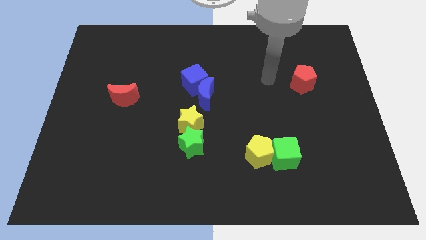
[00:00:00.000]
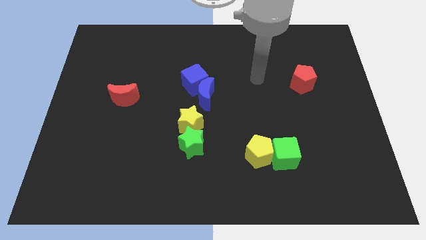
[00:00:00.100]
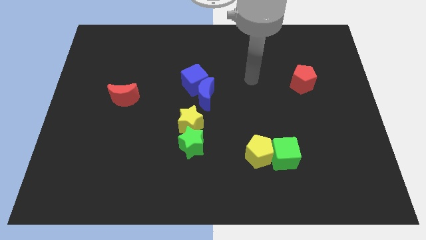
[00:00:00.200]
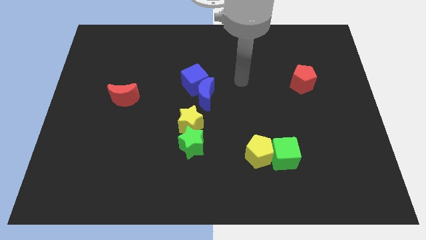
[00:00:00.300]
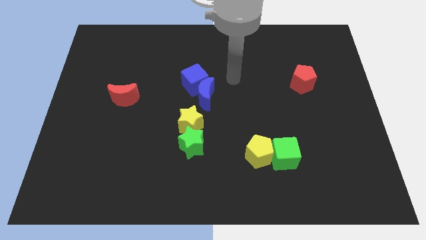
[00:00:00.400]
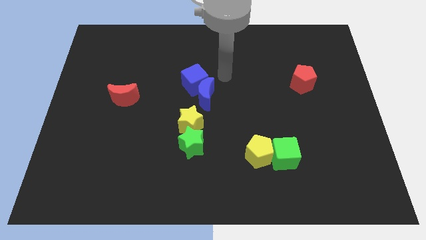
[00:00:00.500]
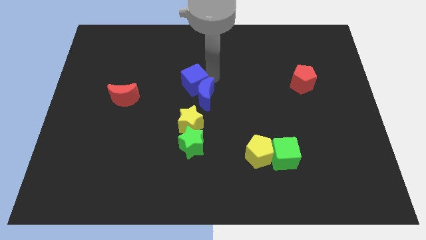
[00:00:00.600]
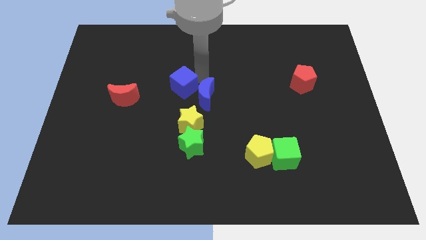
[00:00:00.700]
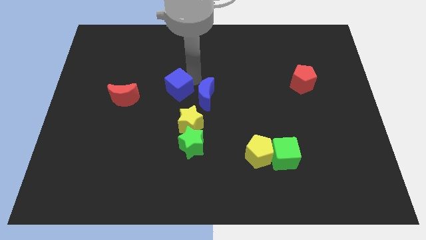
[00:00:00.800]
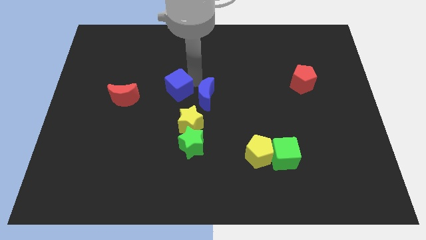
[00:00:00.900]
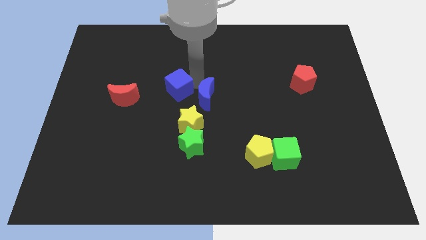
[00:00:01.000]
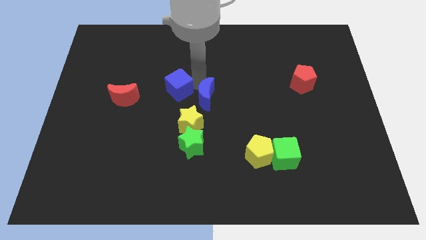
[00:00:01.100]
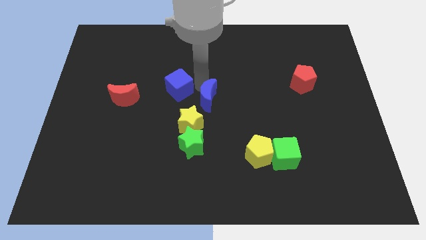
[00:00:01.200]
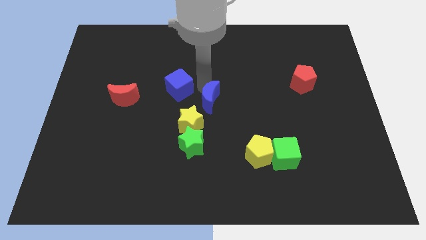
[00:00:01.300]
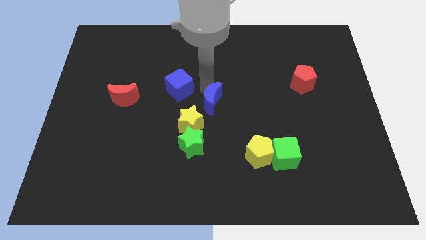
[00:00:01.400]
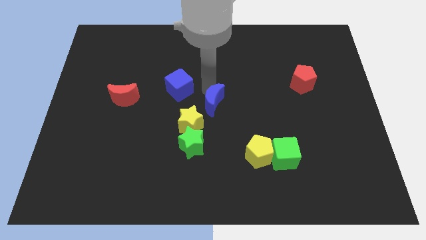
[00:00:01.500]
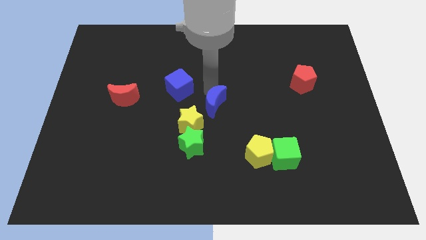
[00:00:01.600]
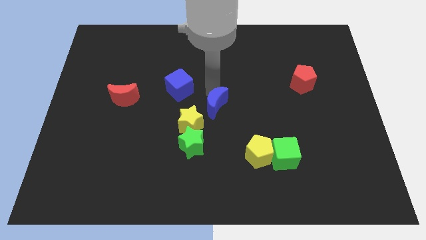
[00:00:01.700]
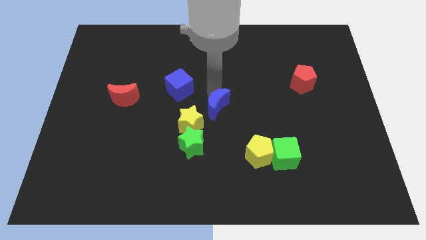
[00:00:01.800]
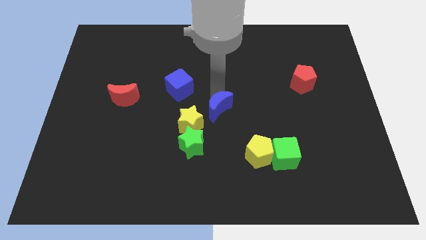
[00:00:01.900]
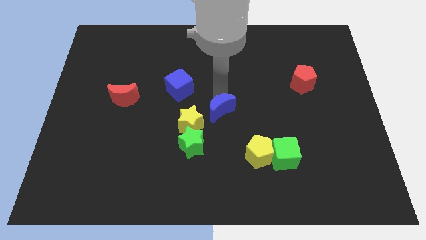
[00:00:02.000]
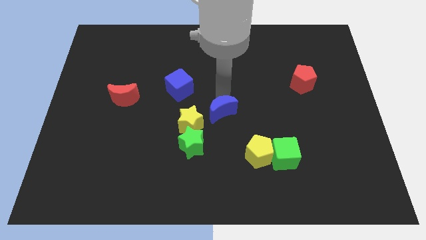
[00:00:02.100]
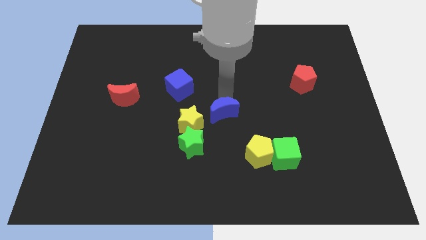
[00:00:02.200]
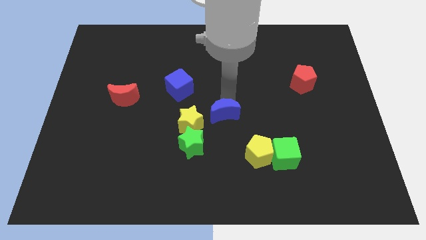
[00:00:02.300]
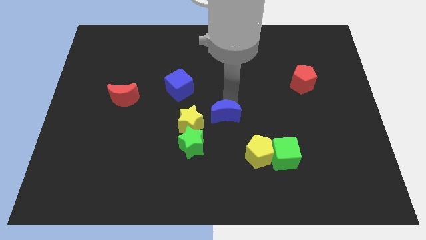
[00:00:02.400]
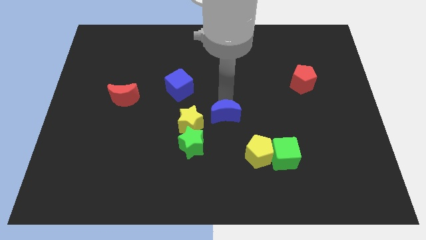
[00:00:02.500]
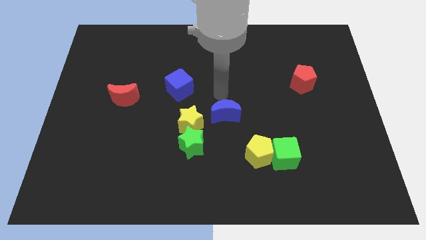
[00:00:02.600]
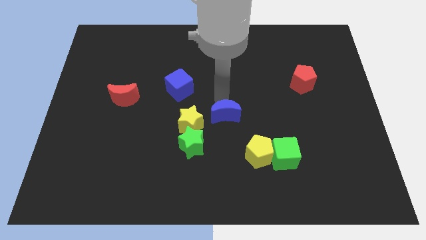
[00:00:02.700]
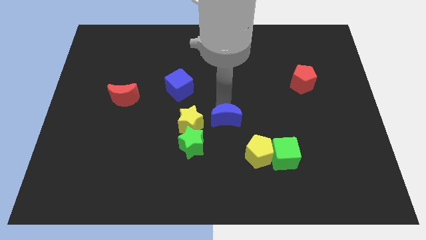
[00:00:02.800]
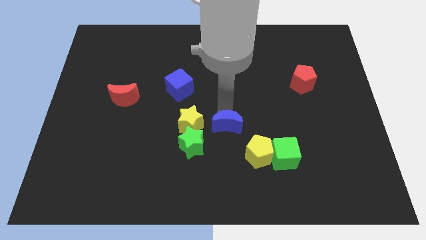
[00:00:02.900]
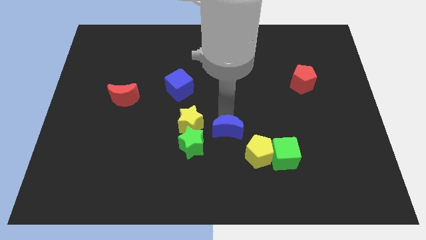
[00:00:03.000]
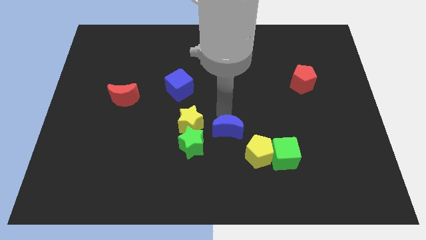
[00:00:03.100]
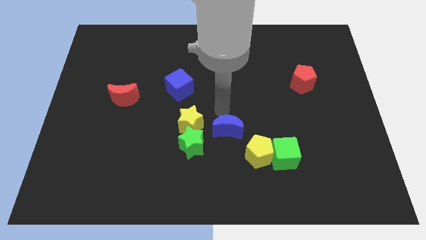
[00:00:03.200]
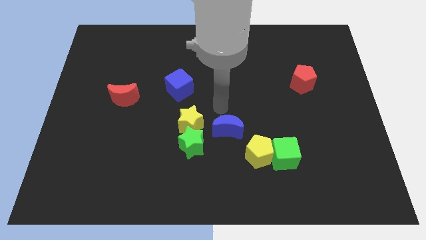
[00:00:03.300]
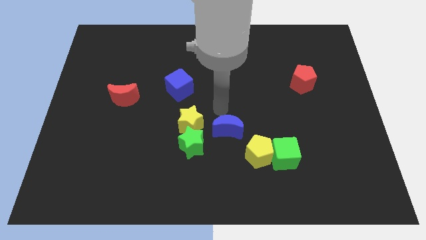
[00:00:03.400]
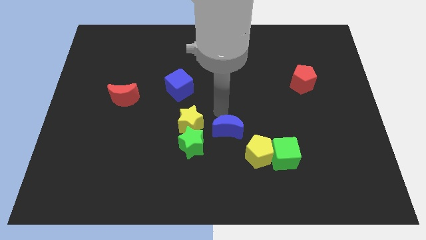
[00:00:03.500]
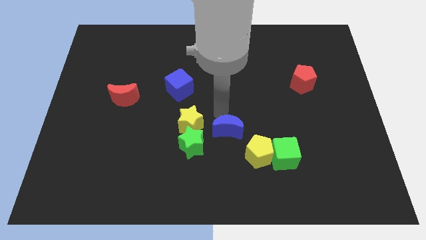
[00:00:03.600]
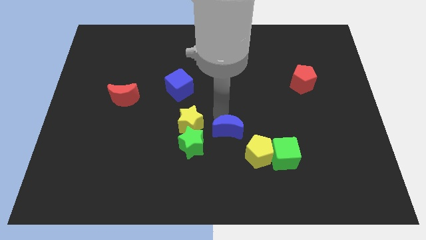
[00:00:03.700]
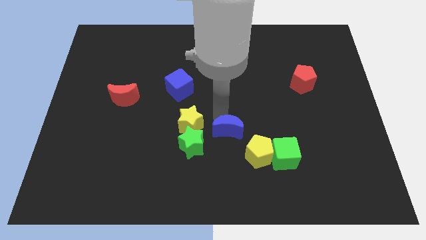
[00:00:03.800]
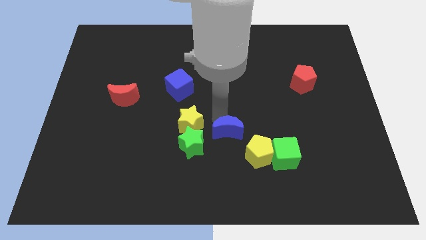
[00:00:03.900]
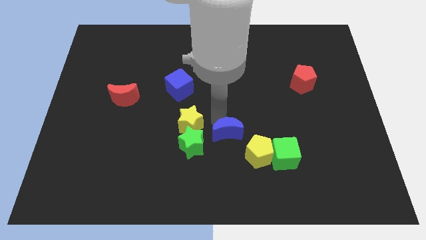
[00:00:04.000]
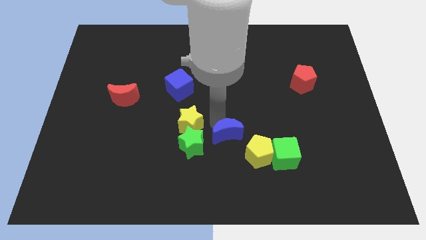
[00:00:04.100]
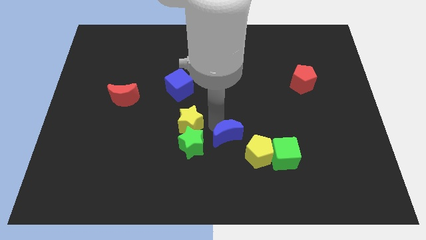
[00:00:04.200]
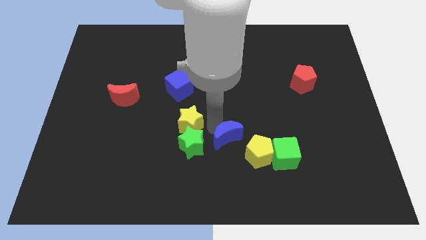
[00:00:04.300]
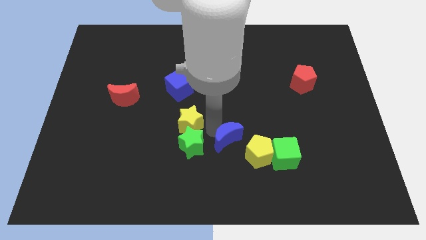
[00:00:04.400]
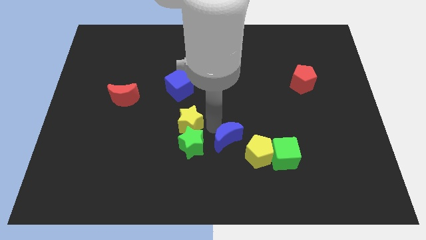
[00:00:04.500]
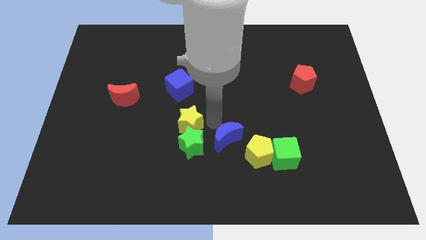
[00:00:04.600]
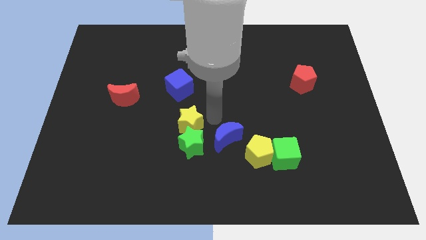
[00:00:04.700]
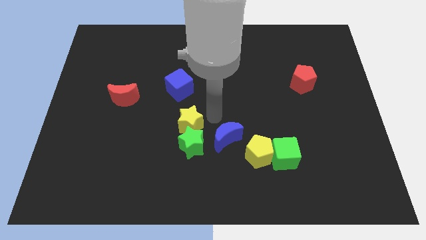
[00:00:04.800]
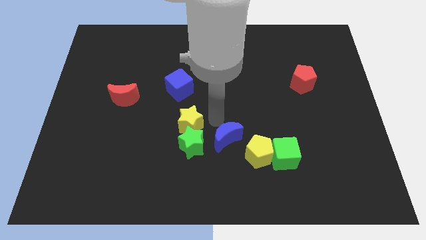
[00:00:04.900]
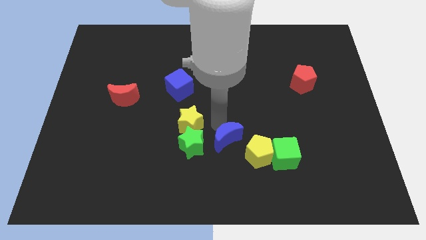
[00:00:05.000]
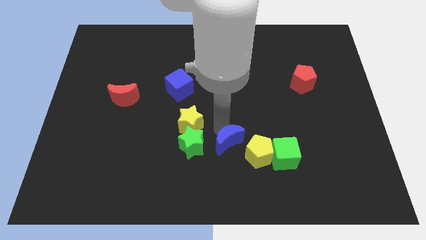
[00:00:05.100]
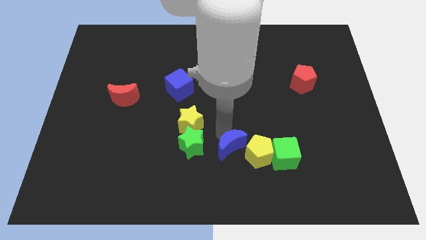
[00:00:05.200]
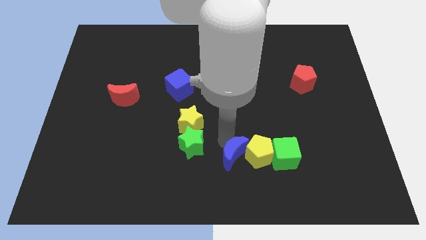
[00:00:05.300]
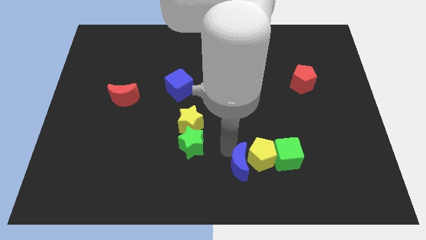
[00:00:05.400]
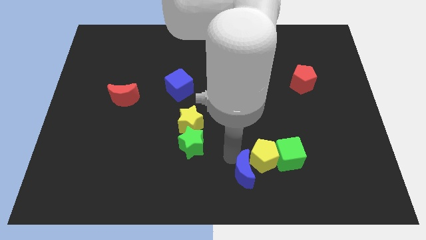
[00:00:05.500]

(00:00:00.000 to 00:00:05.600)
put the blue moon to the bottom left side of the green cube

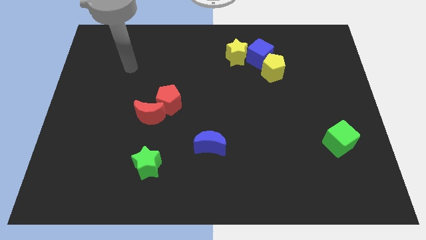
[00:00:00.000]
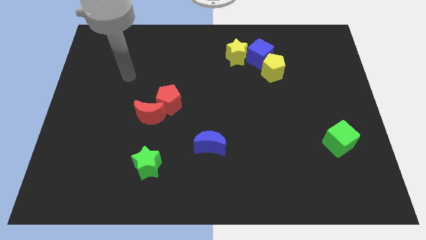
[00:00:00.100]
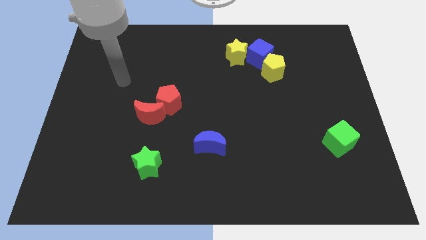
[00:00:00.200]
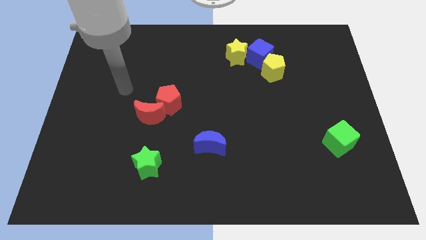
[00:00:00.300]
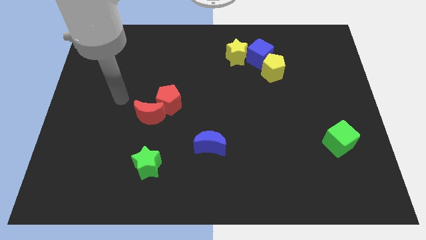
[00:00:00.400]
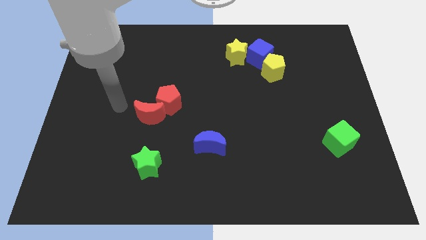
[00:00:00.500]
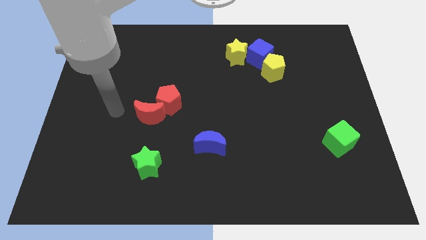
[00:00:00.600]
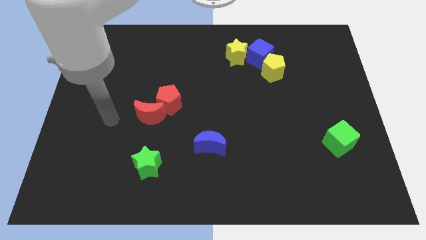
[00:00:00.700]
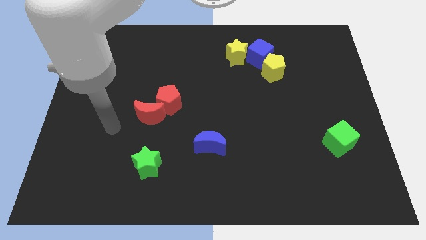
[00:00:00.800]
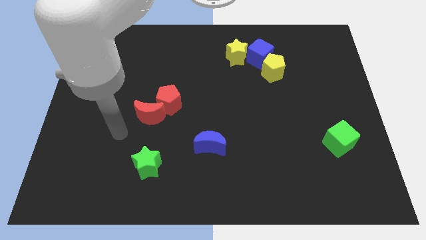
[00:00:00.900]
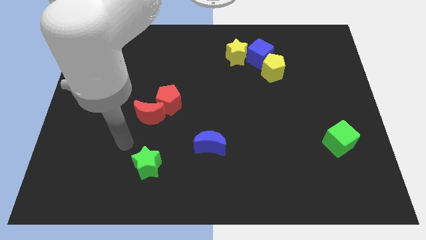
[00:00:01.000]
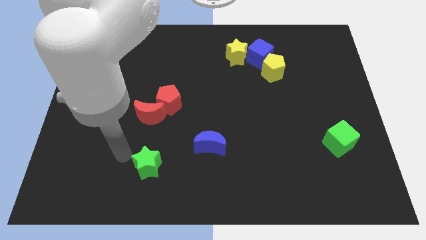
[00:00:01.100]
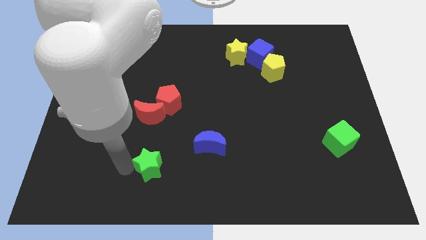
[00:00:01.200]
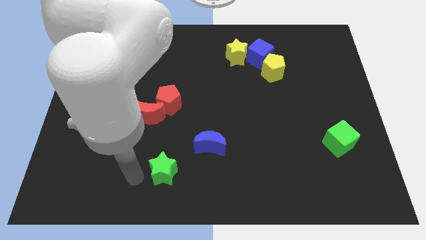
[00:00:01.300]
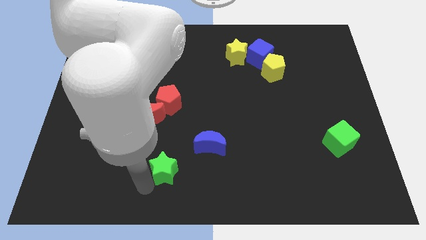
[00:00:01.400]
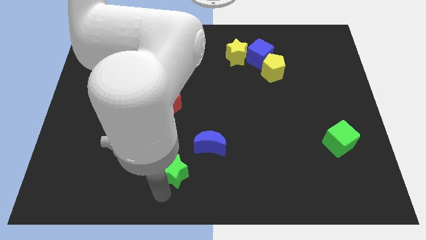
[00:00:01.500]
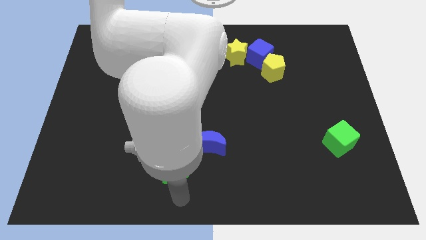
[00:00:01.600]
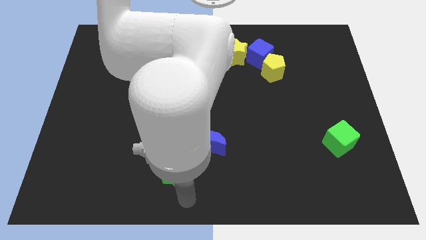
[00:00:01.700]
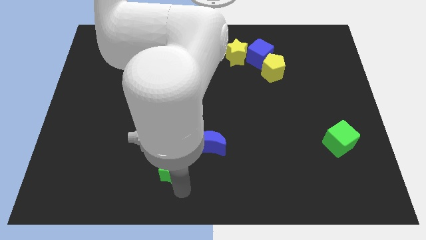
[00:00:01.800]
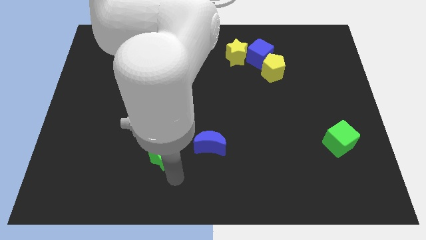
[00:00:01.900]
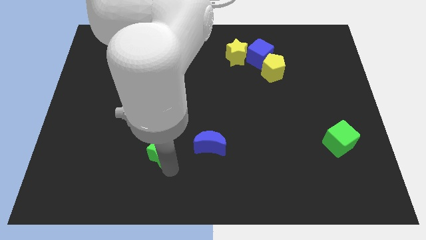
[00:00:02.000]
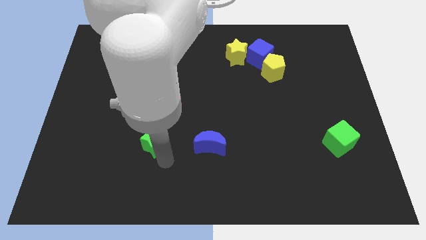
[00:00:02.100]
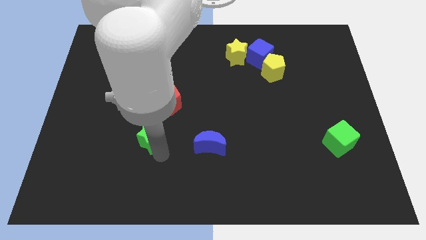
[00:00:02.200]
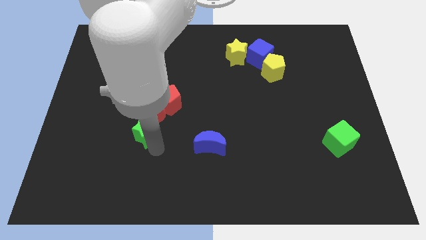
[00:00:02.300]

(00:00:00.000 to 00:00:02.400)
put the green star diagonally down and to the left of the red pentagon

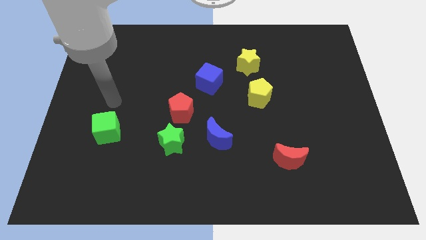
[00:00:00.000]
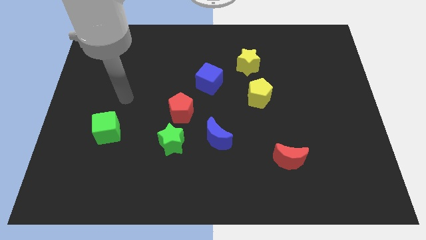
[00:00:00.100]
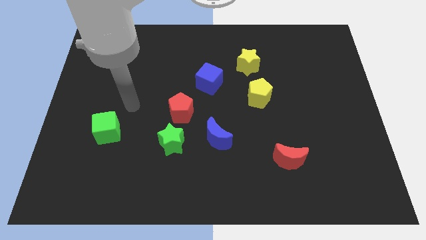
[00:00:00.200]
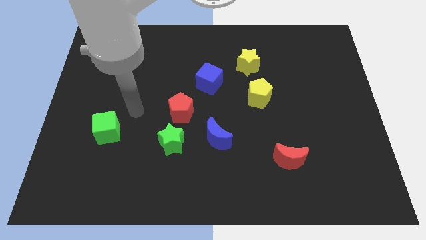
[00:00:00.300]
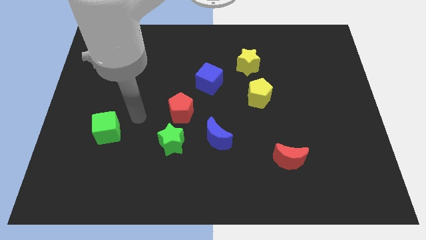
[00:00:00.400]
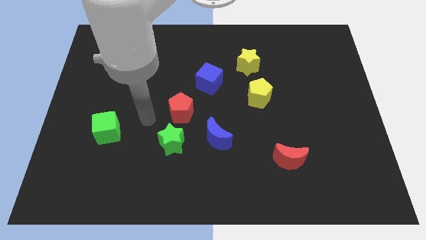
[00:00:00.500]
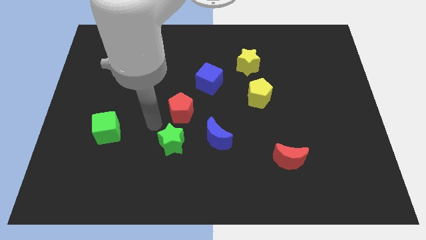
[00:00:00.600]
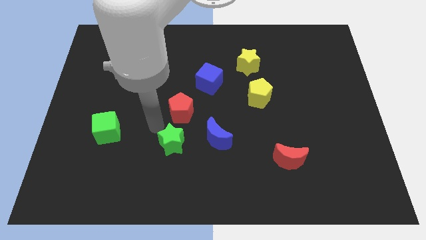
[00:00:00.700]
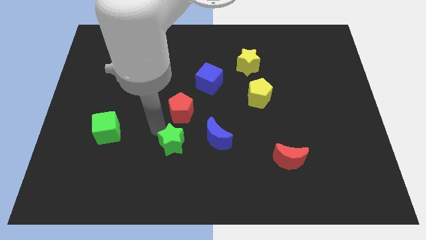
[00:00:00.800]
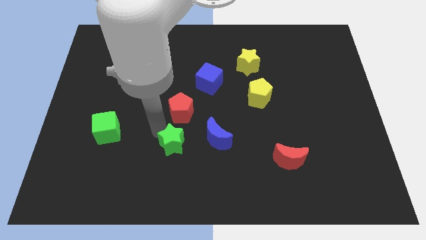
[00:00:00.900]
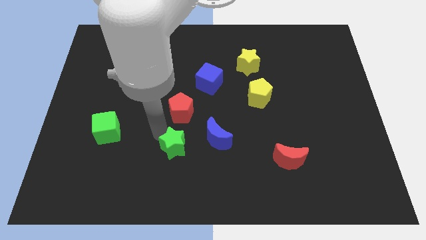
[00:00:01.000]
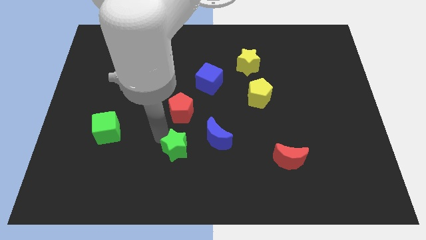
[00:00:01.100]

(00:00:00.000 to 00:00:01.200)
push the green star to the bottom left of the blue moon
